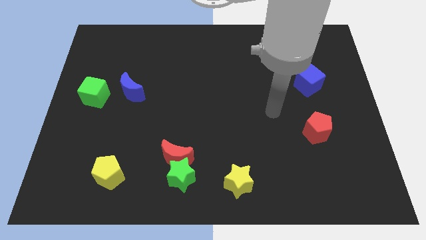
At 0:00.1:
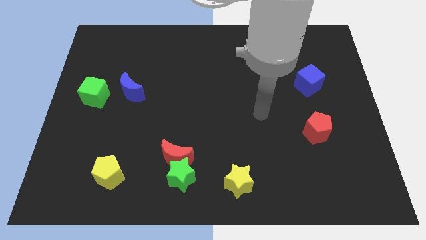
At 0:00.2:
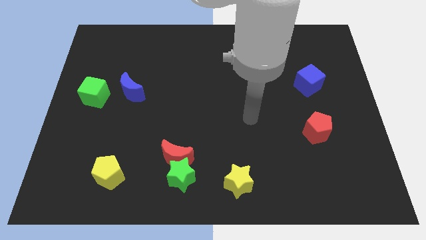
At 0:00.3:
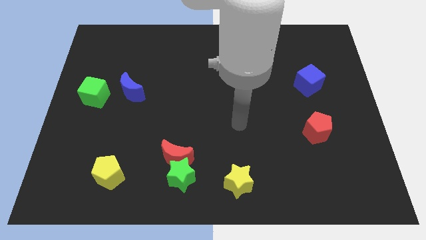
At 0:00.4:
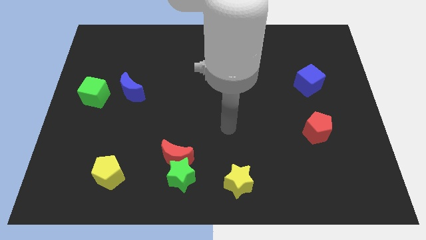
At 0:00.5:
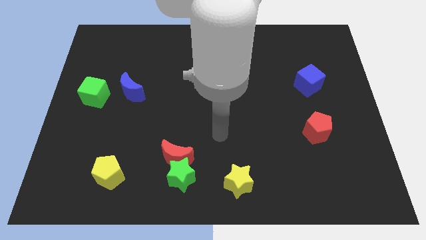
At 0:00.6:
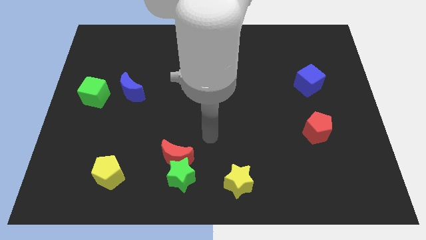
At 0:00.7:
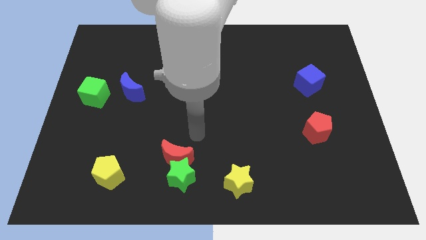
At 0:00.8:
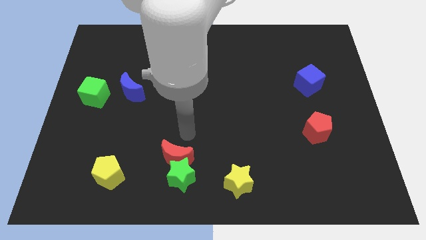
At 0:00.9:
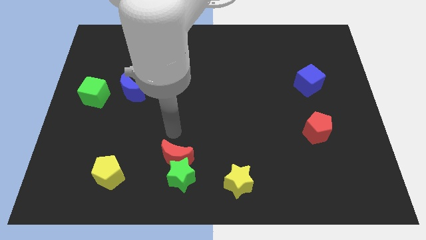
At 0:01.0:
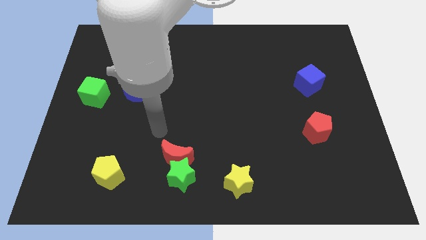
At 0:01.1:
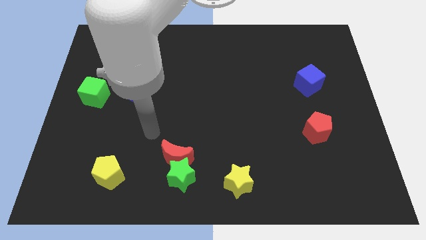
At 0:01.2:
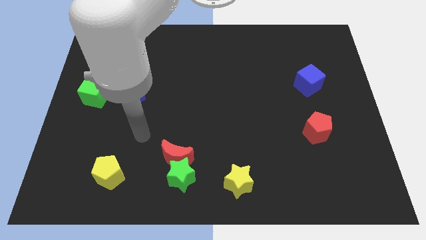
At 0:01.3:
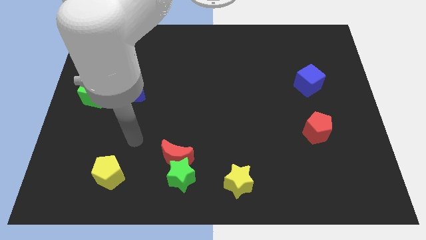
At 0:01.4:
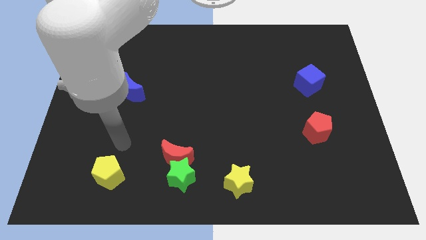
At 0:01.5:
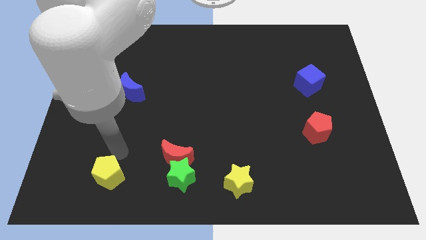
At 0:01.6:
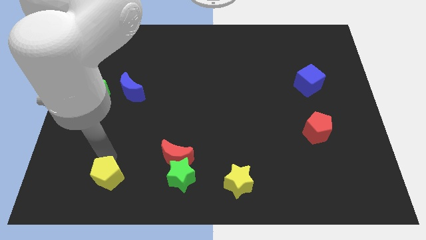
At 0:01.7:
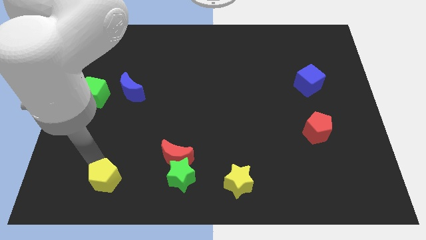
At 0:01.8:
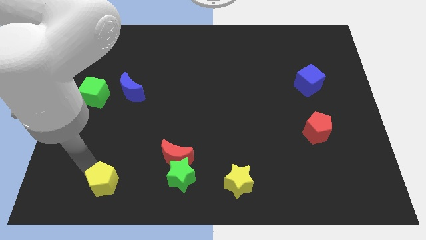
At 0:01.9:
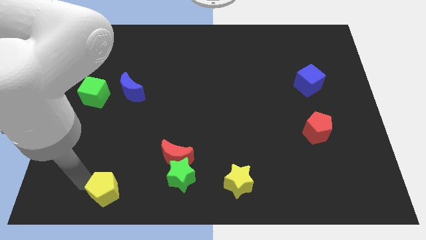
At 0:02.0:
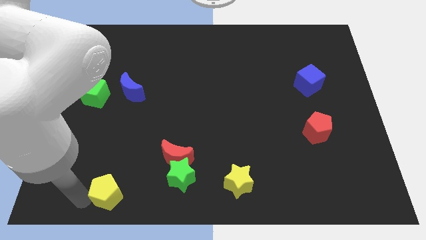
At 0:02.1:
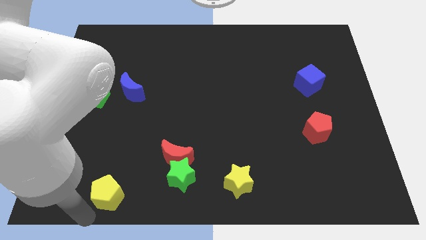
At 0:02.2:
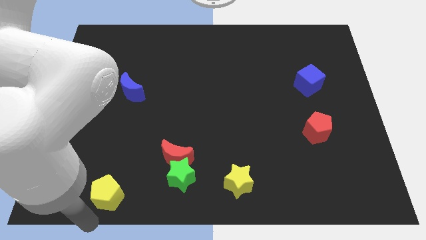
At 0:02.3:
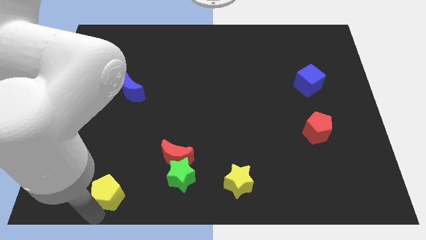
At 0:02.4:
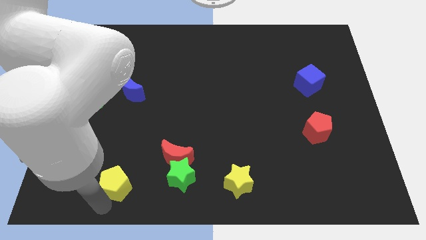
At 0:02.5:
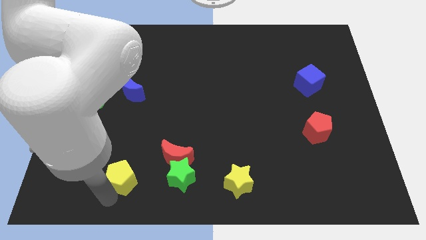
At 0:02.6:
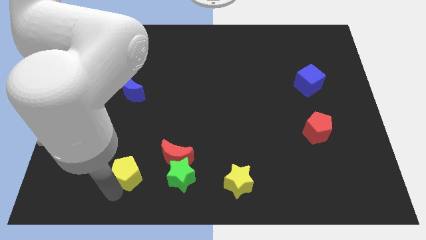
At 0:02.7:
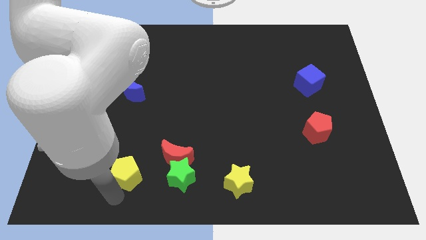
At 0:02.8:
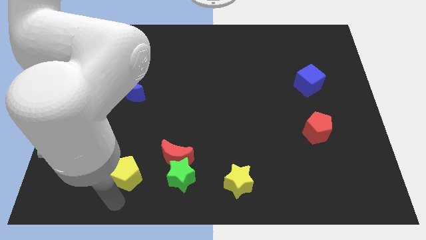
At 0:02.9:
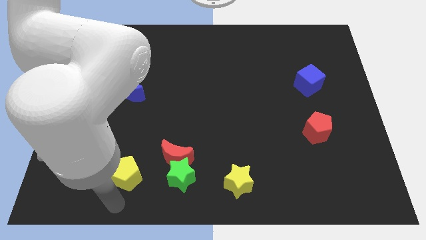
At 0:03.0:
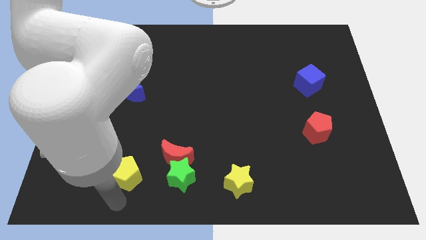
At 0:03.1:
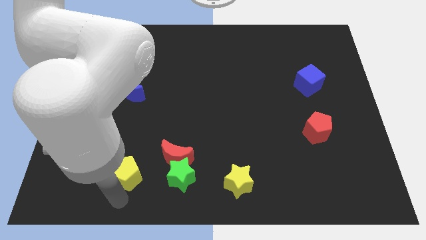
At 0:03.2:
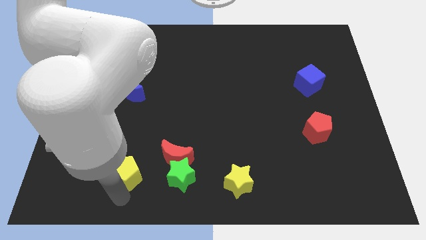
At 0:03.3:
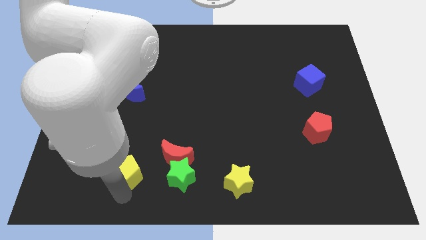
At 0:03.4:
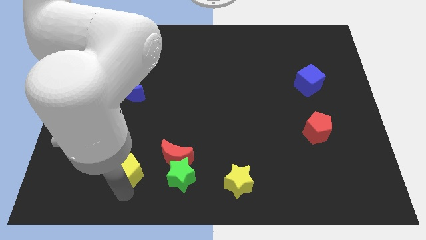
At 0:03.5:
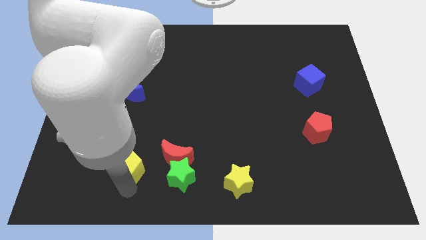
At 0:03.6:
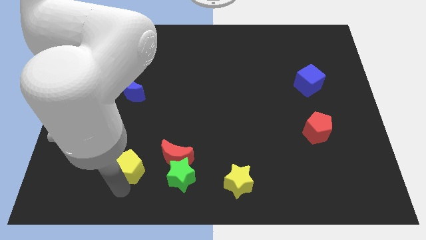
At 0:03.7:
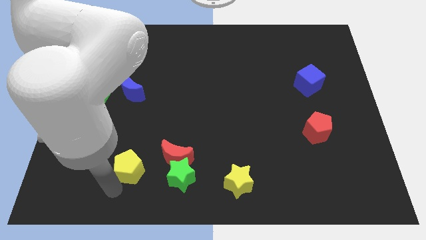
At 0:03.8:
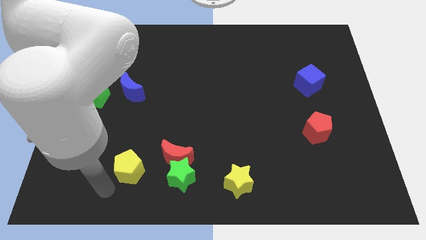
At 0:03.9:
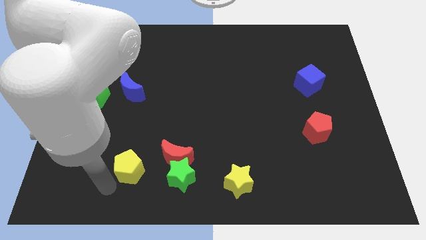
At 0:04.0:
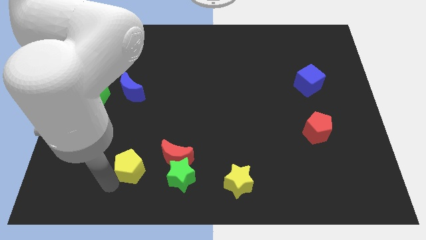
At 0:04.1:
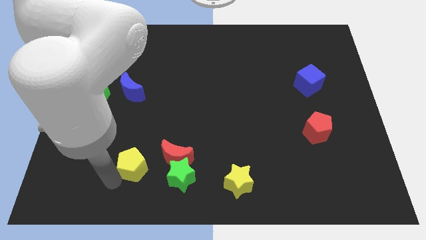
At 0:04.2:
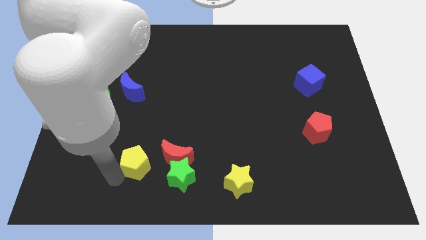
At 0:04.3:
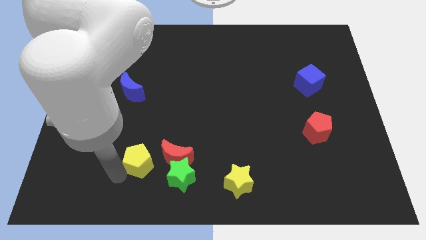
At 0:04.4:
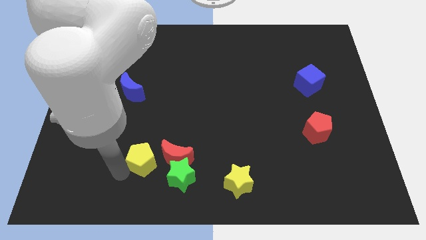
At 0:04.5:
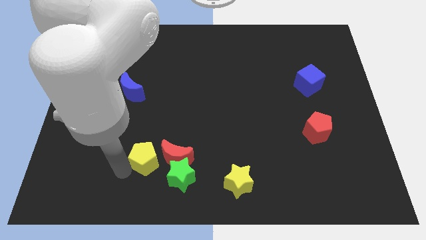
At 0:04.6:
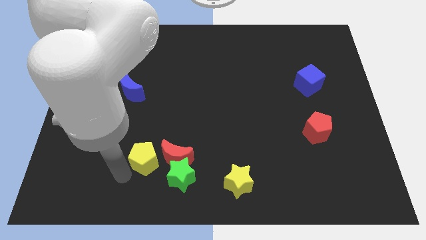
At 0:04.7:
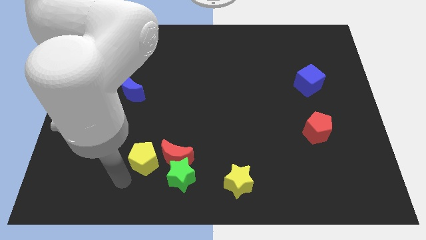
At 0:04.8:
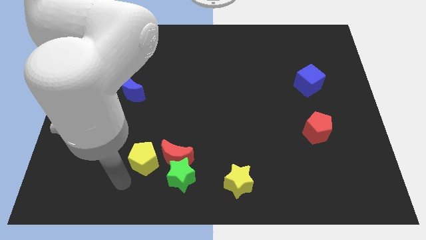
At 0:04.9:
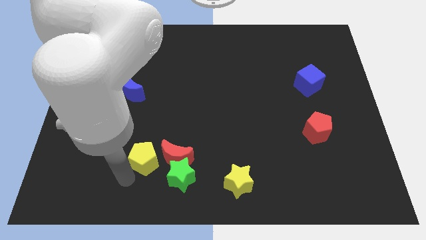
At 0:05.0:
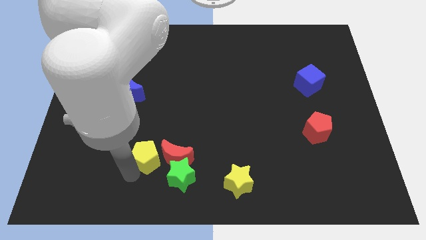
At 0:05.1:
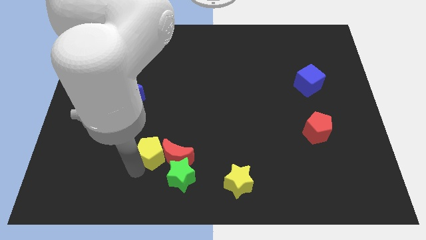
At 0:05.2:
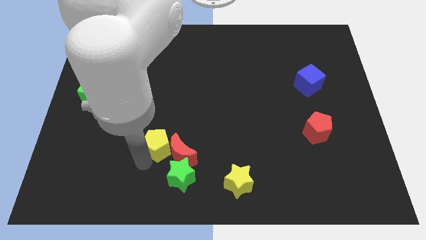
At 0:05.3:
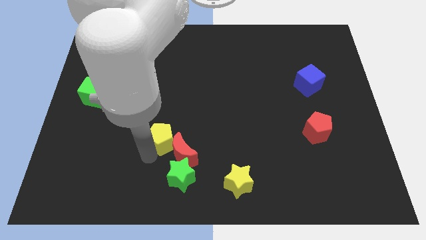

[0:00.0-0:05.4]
move the yellow pentagon to the top of the green star

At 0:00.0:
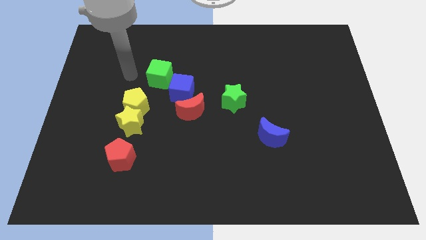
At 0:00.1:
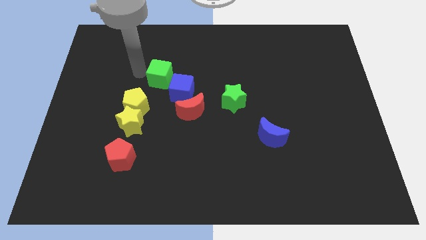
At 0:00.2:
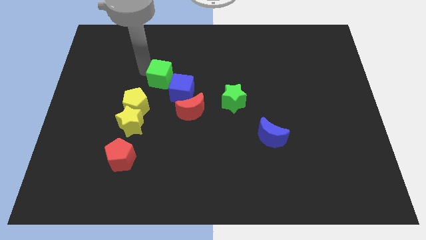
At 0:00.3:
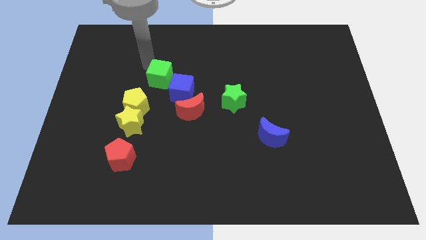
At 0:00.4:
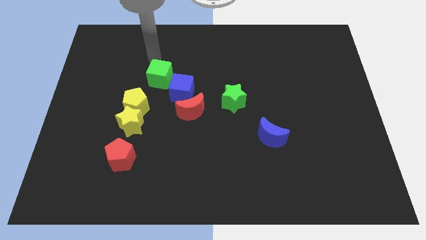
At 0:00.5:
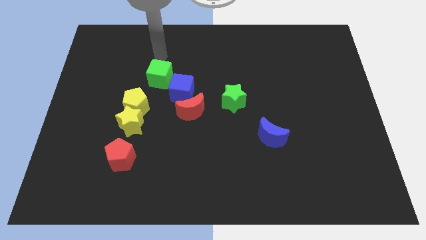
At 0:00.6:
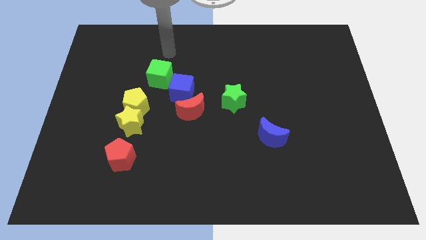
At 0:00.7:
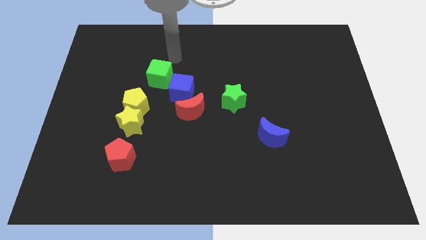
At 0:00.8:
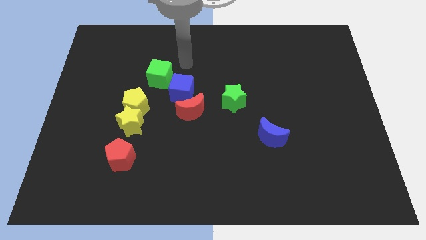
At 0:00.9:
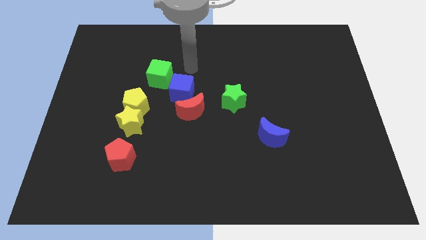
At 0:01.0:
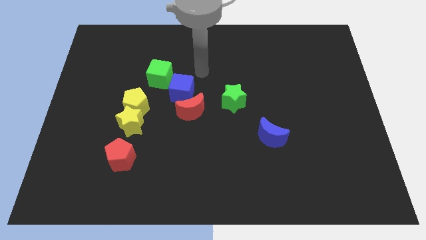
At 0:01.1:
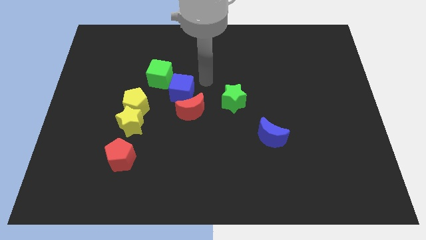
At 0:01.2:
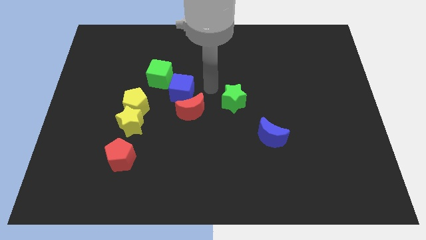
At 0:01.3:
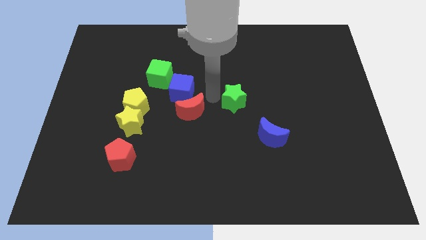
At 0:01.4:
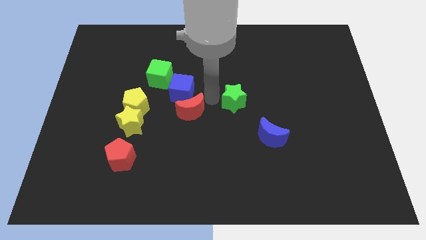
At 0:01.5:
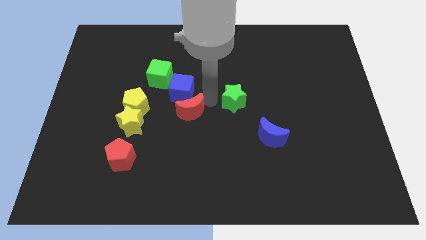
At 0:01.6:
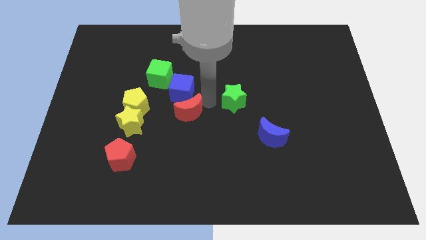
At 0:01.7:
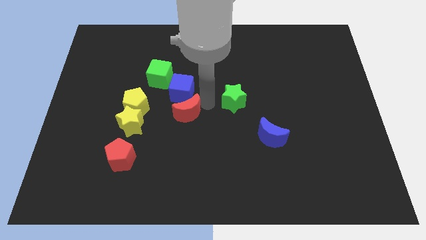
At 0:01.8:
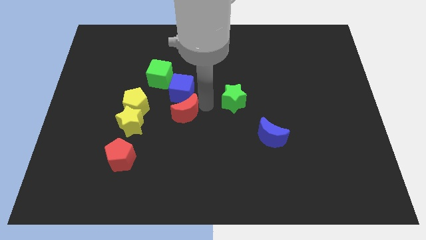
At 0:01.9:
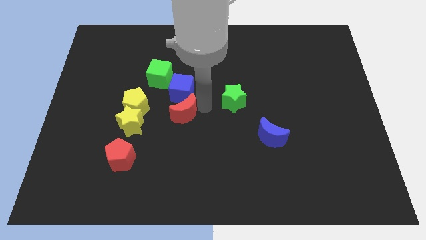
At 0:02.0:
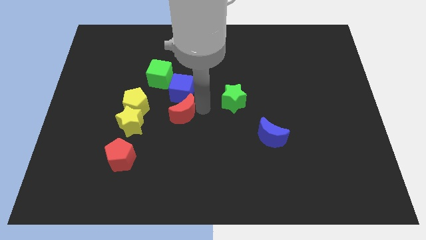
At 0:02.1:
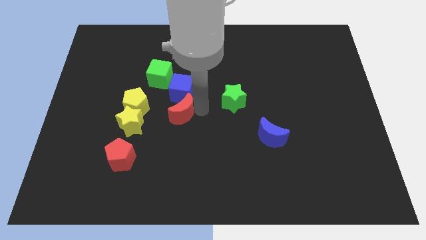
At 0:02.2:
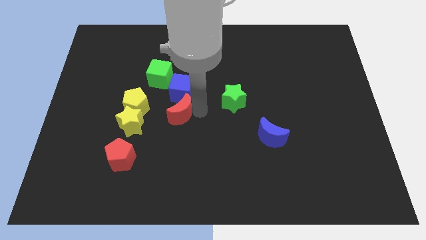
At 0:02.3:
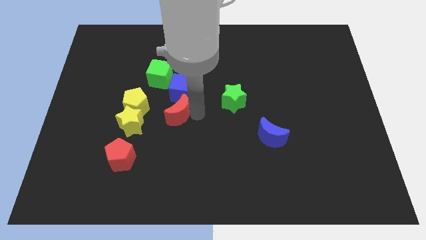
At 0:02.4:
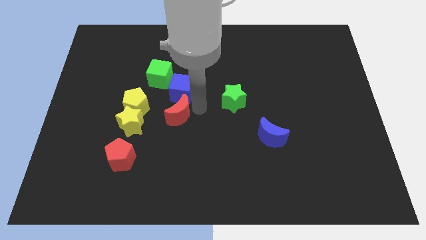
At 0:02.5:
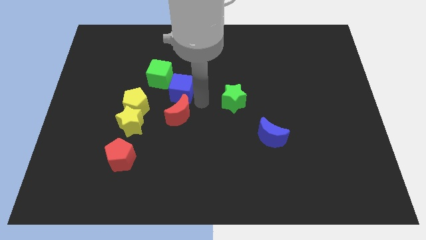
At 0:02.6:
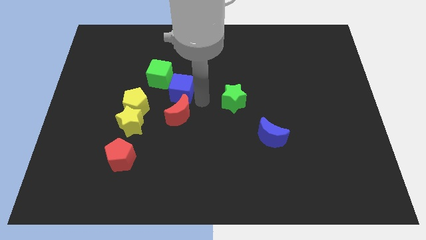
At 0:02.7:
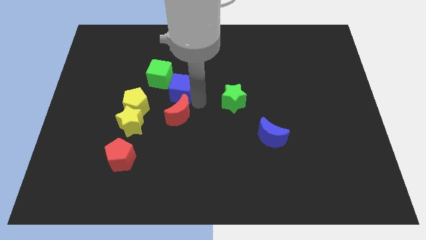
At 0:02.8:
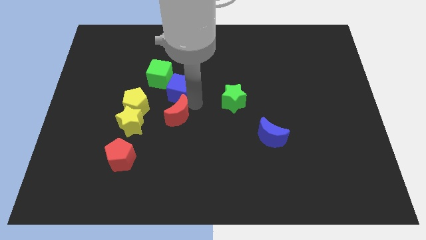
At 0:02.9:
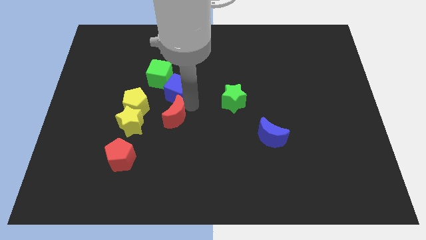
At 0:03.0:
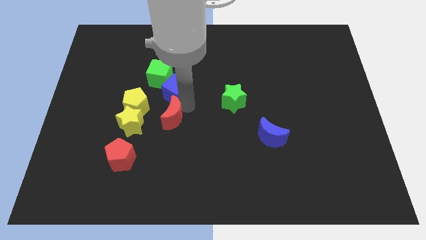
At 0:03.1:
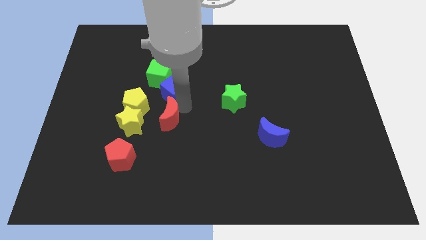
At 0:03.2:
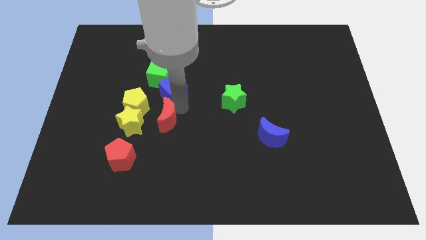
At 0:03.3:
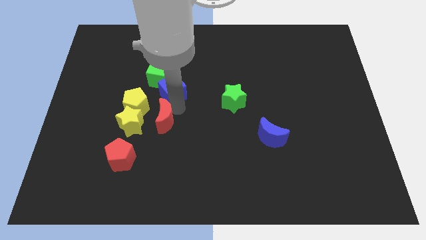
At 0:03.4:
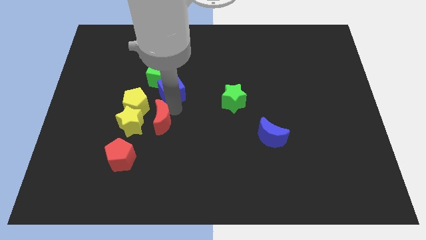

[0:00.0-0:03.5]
put the red moon to the top right side of the red pentagon
